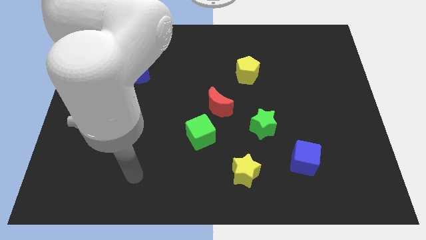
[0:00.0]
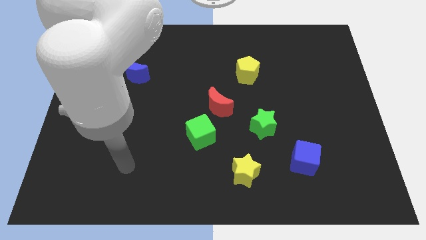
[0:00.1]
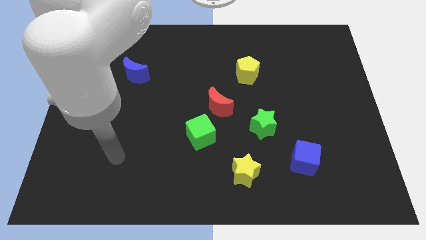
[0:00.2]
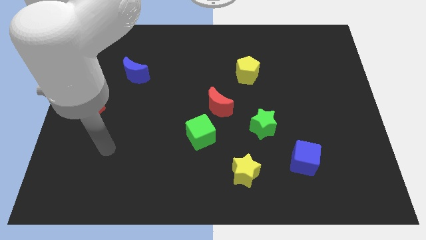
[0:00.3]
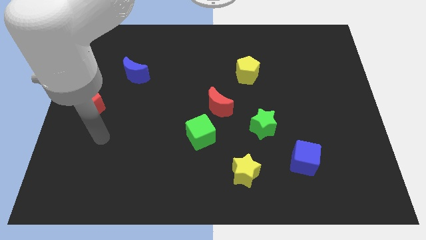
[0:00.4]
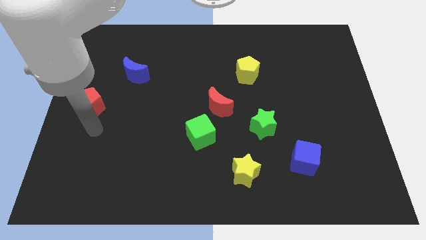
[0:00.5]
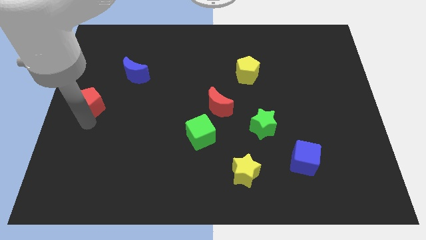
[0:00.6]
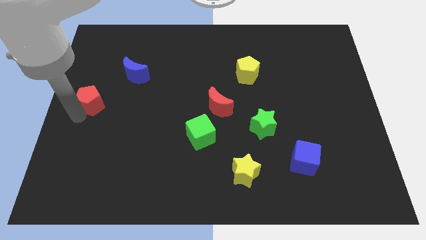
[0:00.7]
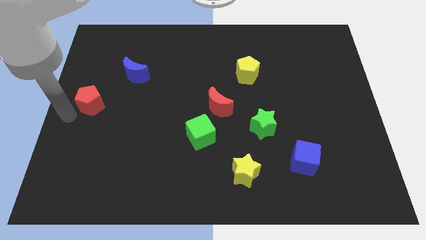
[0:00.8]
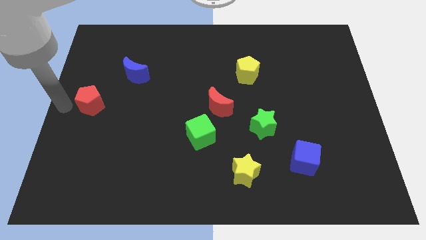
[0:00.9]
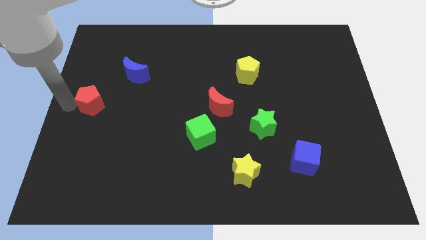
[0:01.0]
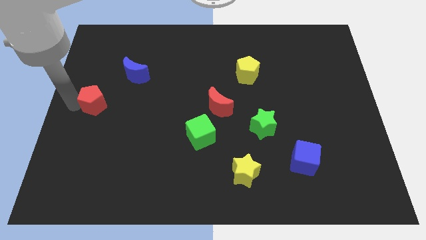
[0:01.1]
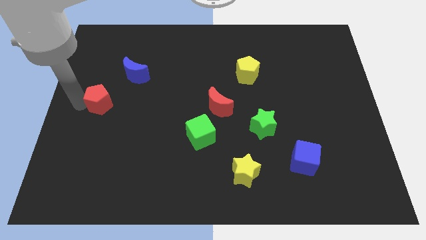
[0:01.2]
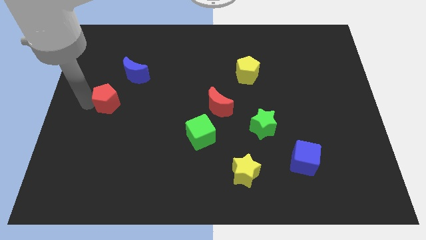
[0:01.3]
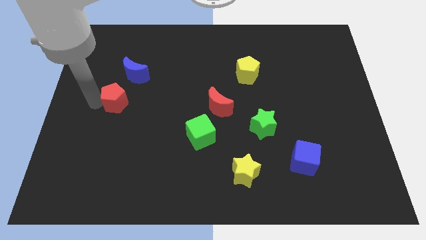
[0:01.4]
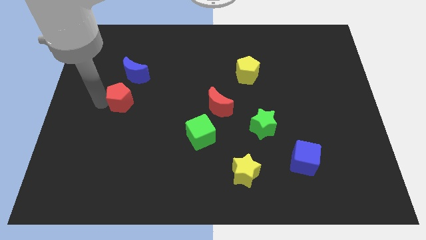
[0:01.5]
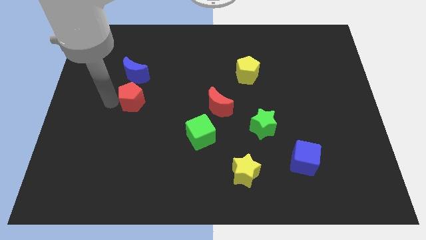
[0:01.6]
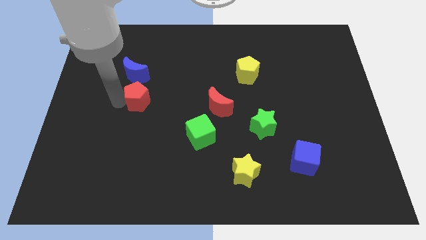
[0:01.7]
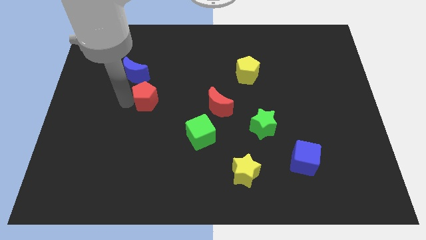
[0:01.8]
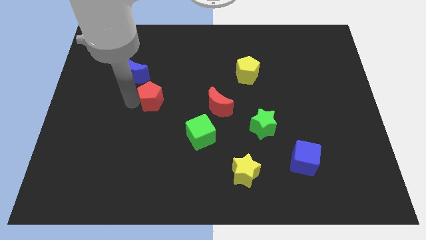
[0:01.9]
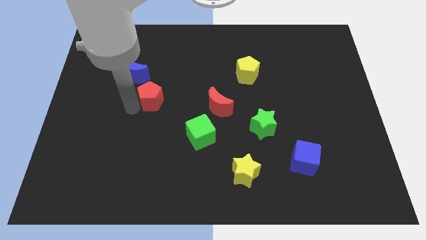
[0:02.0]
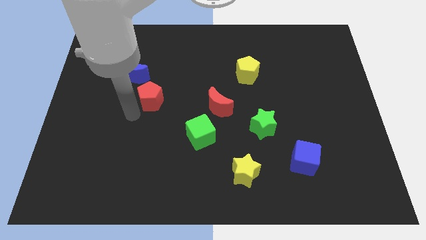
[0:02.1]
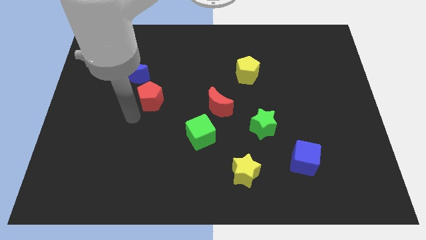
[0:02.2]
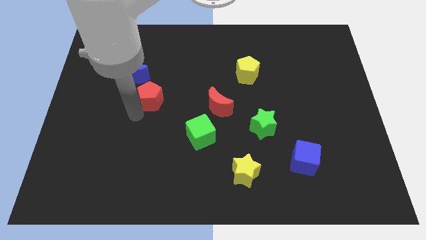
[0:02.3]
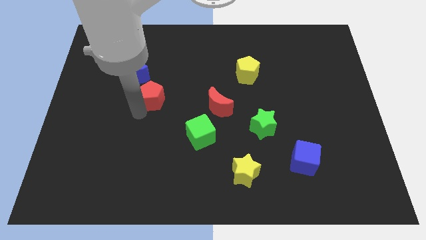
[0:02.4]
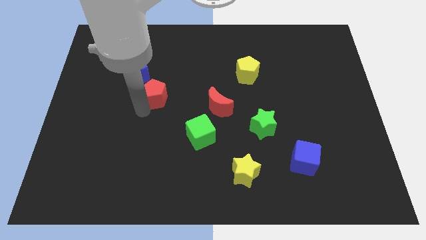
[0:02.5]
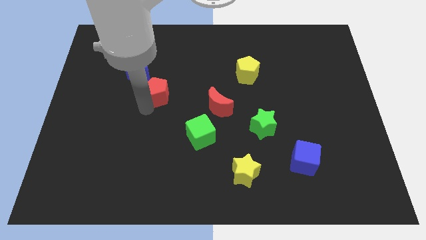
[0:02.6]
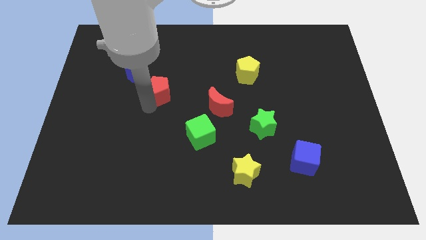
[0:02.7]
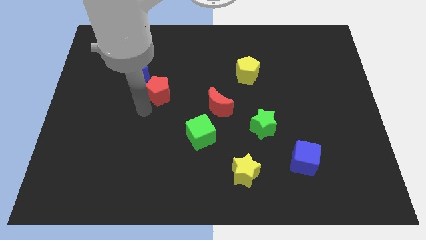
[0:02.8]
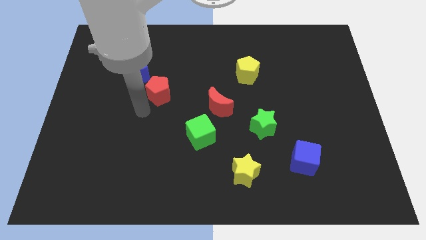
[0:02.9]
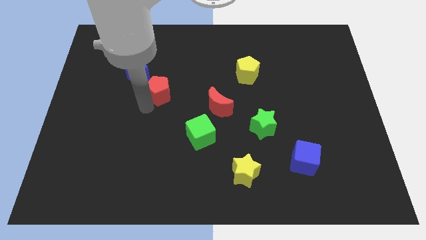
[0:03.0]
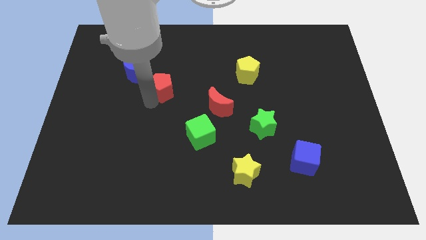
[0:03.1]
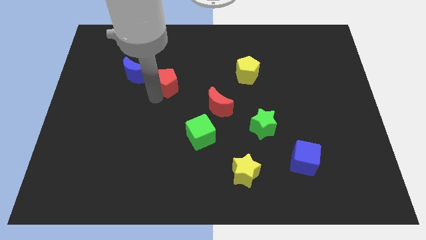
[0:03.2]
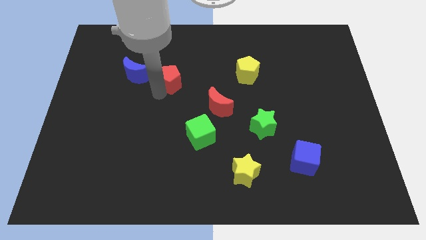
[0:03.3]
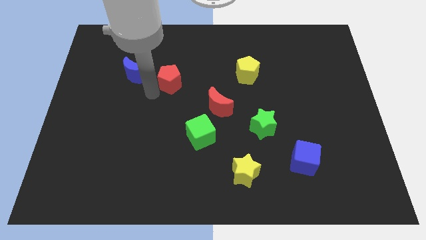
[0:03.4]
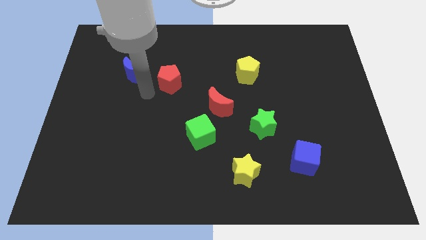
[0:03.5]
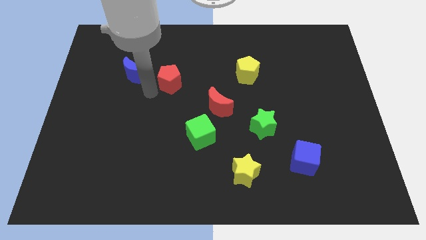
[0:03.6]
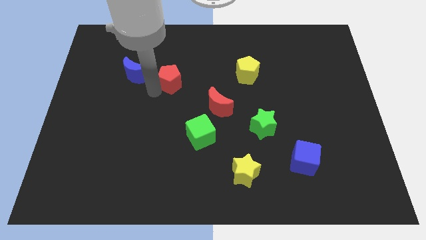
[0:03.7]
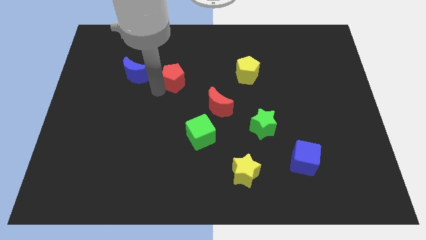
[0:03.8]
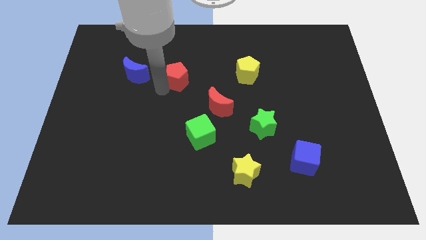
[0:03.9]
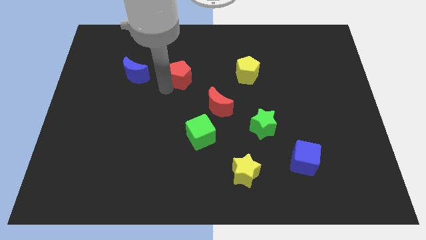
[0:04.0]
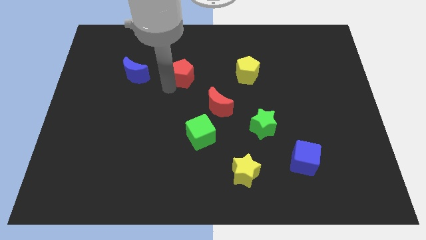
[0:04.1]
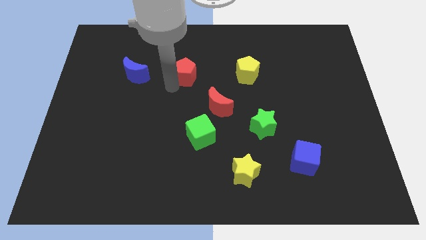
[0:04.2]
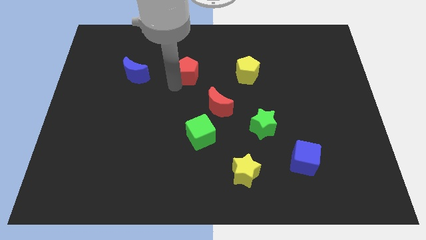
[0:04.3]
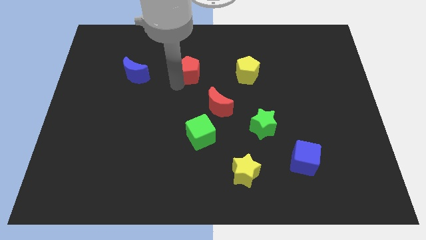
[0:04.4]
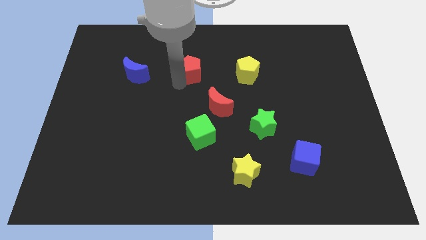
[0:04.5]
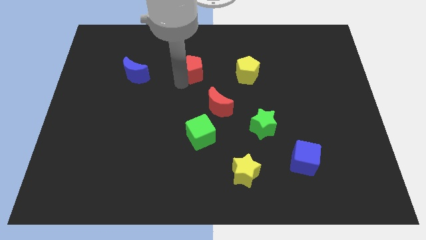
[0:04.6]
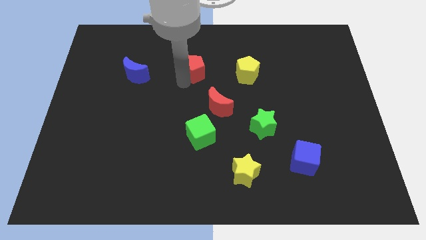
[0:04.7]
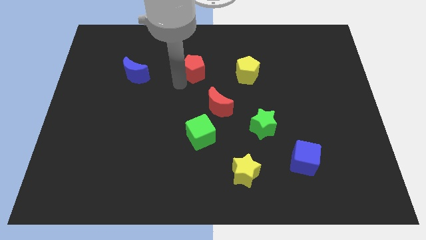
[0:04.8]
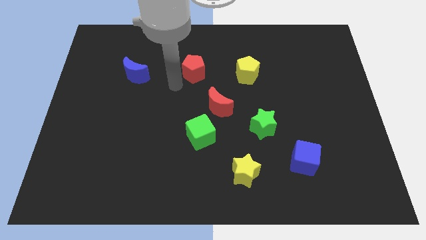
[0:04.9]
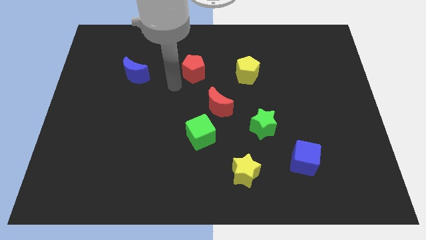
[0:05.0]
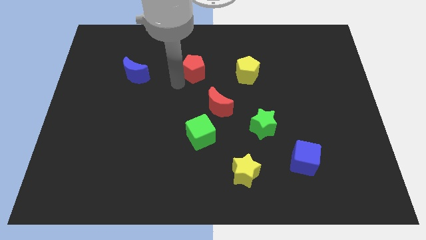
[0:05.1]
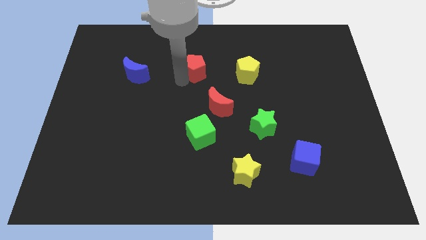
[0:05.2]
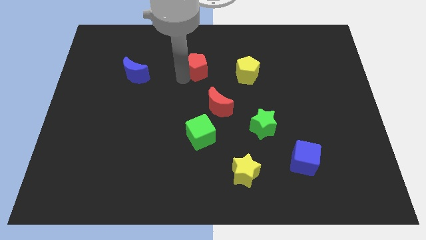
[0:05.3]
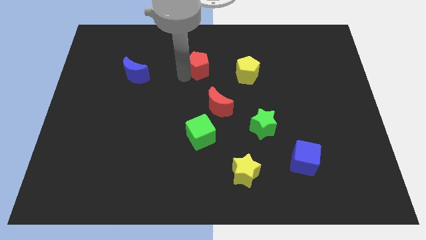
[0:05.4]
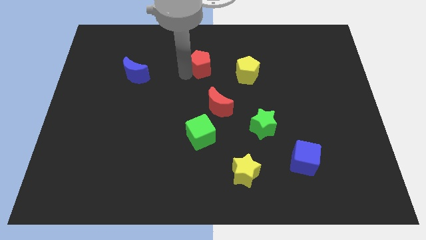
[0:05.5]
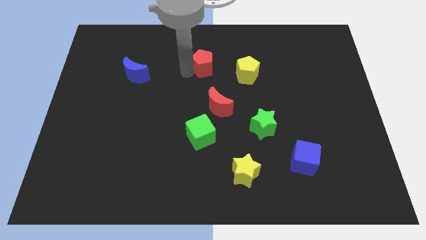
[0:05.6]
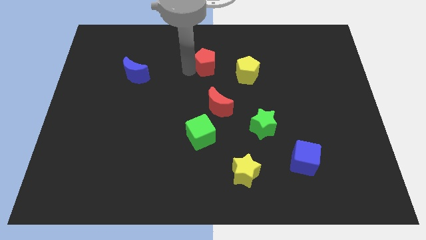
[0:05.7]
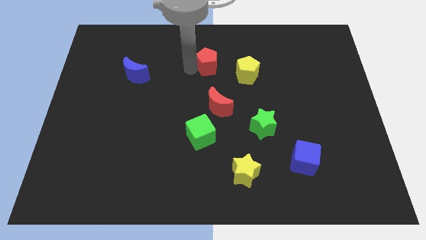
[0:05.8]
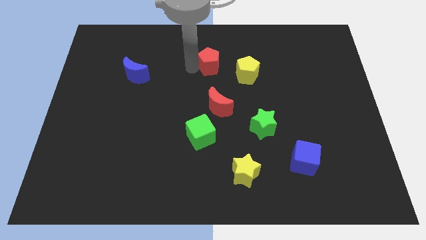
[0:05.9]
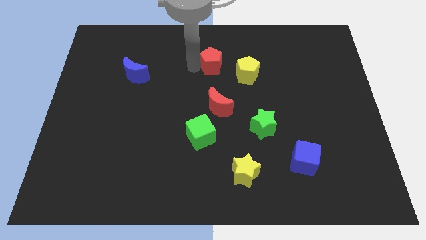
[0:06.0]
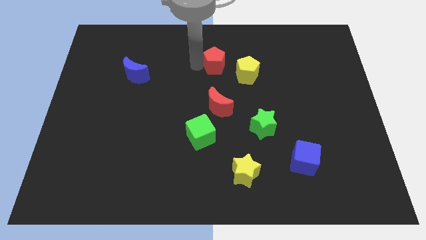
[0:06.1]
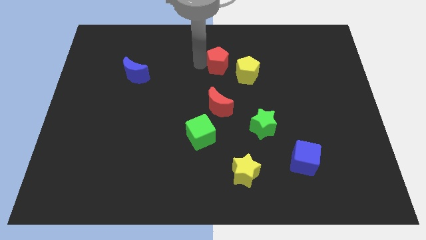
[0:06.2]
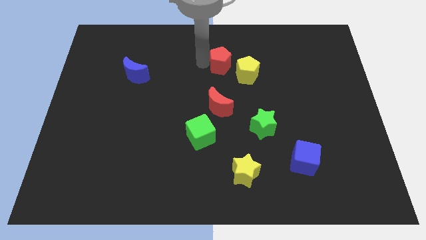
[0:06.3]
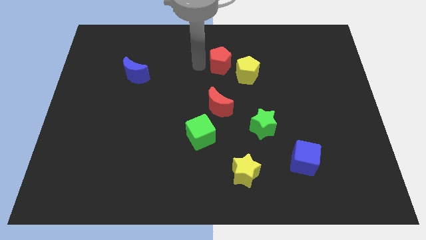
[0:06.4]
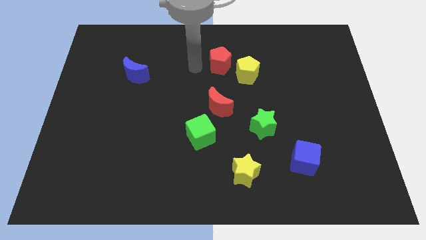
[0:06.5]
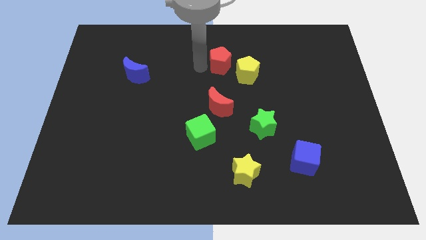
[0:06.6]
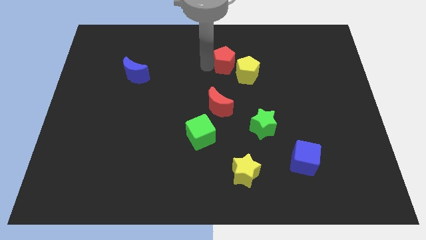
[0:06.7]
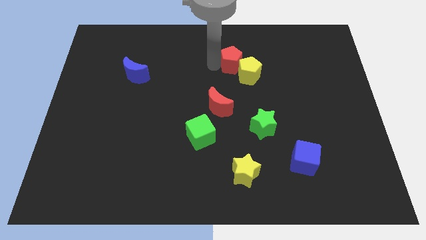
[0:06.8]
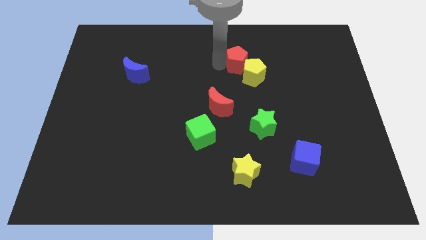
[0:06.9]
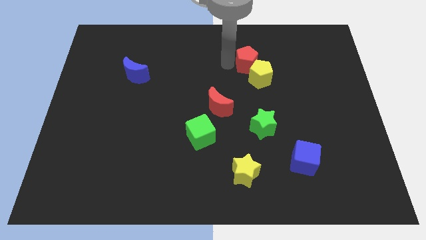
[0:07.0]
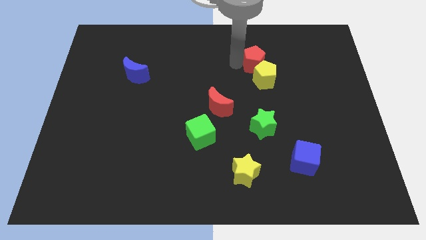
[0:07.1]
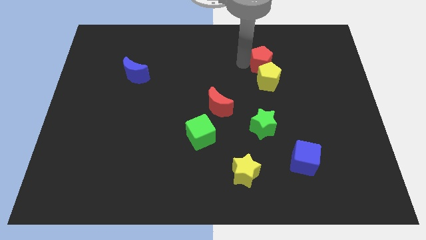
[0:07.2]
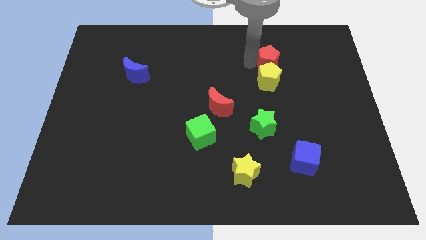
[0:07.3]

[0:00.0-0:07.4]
slide the red pentagon to the top right of the yellow pentagon
